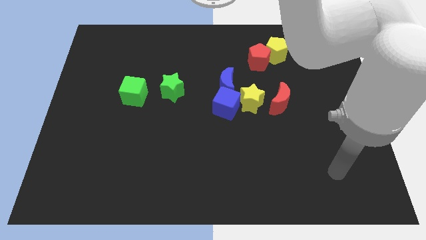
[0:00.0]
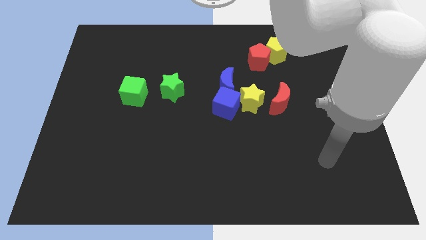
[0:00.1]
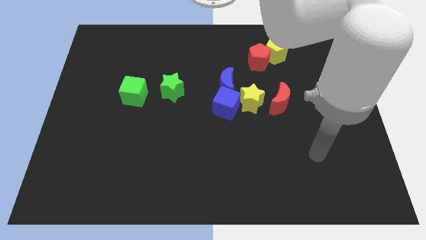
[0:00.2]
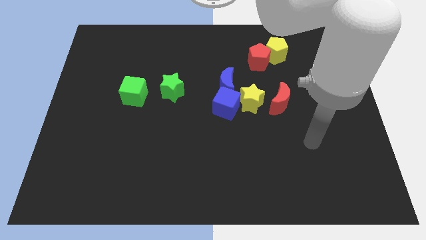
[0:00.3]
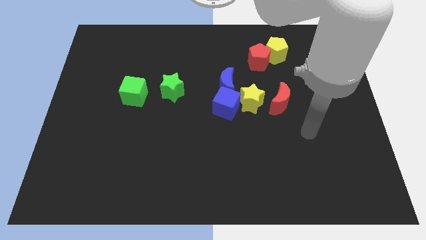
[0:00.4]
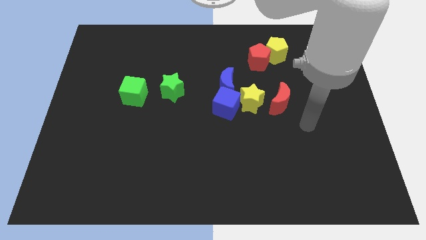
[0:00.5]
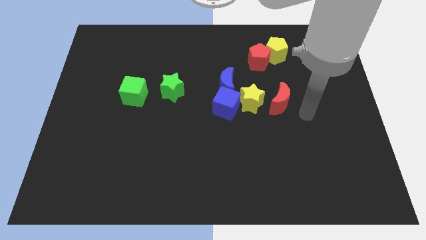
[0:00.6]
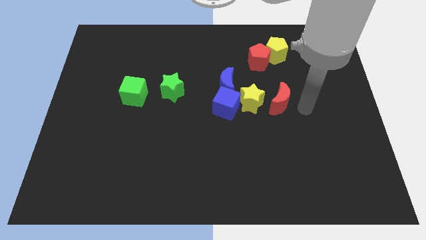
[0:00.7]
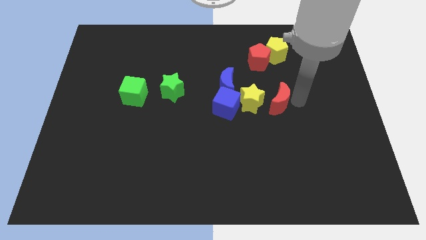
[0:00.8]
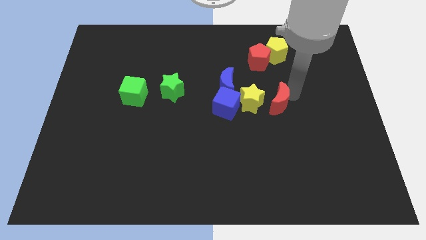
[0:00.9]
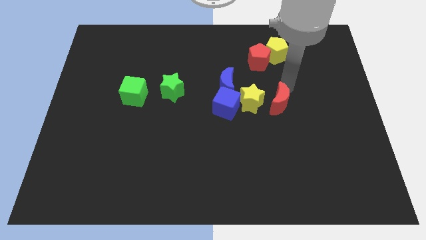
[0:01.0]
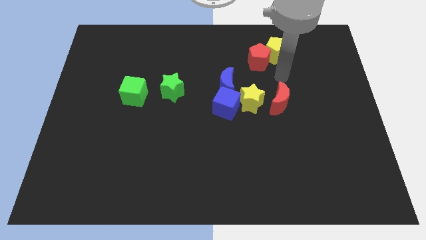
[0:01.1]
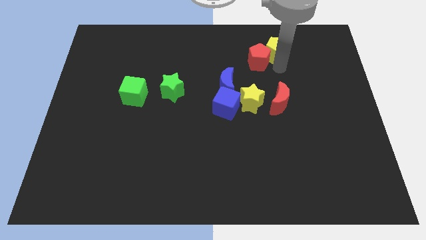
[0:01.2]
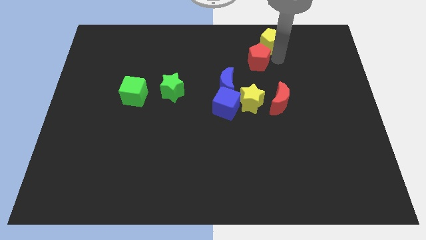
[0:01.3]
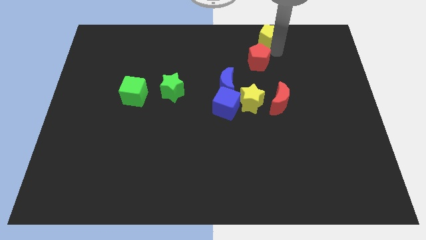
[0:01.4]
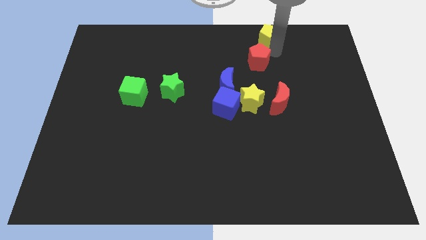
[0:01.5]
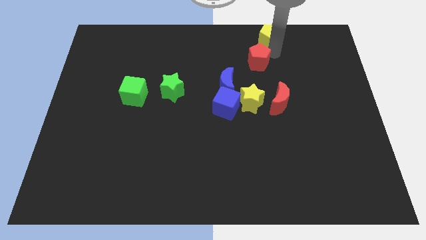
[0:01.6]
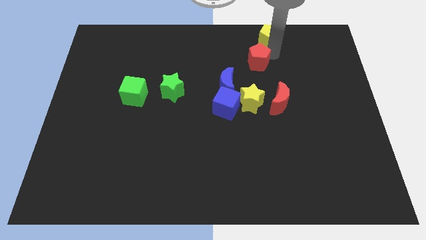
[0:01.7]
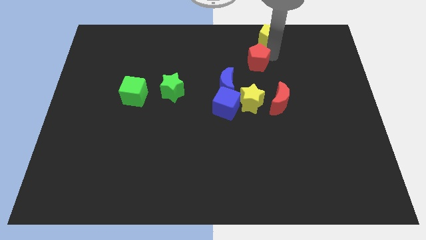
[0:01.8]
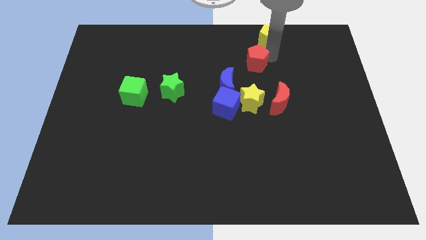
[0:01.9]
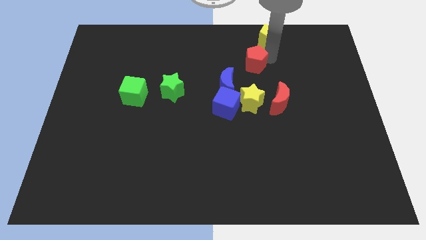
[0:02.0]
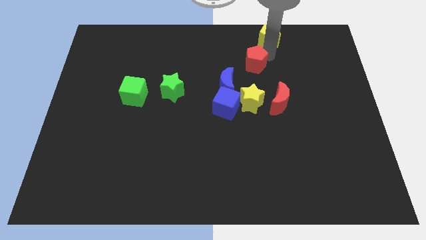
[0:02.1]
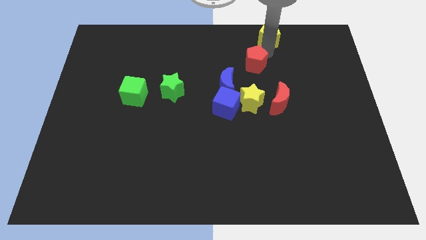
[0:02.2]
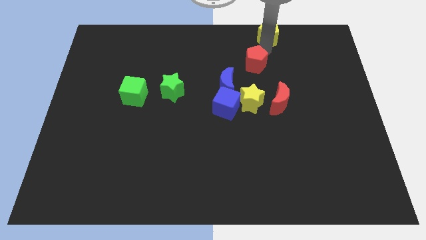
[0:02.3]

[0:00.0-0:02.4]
separate the red pentagon from the yellow pentagon

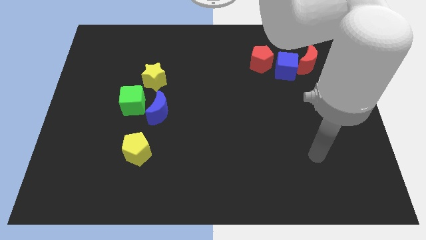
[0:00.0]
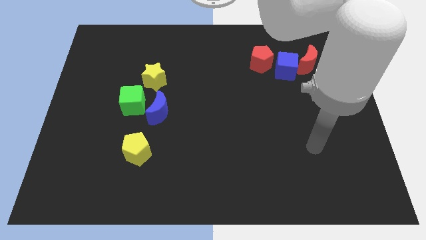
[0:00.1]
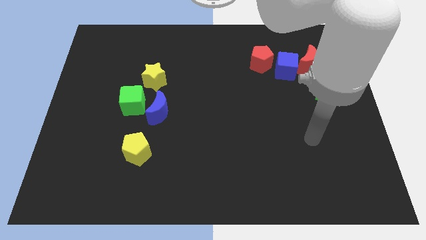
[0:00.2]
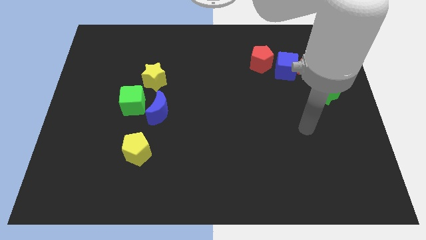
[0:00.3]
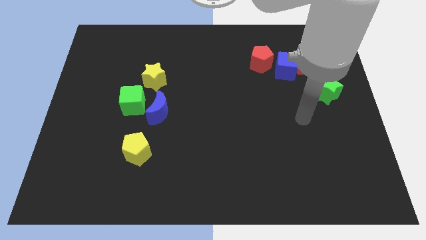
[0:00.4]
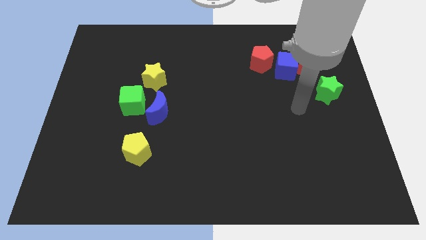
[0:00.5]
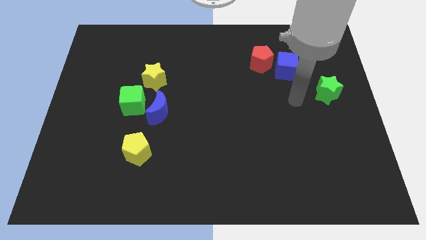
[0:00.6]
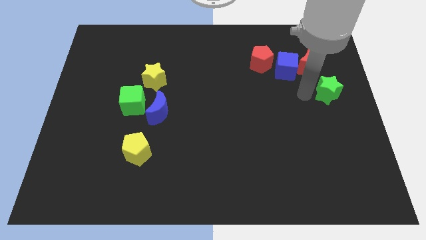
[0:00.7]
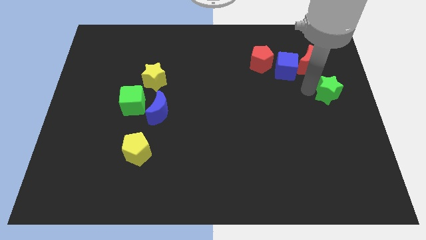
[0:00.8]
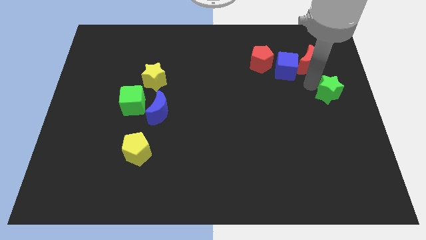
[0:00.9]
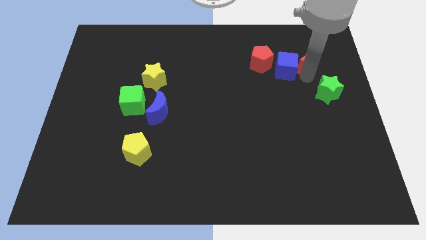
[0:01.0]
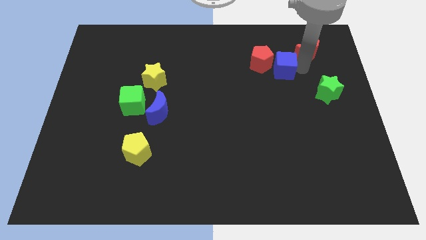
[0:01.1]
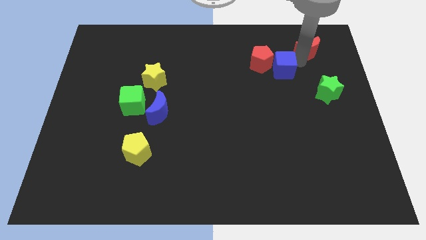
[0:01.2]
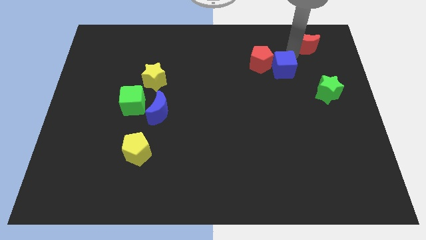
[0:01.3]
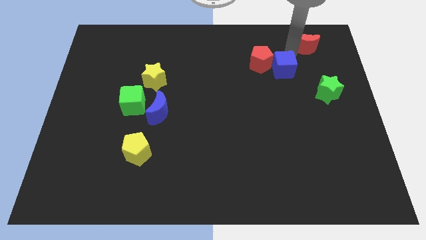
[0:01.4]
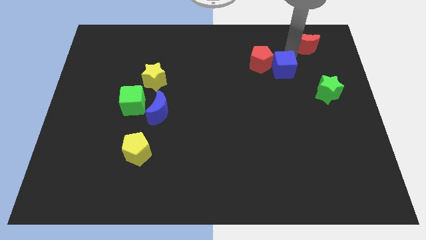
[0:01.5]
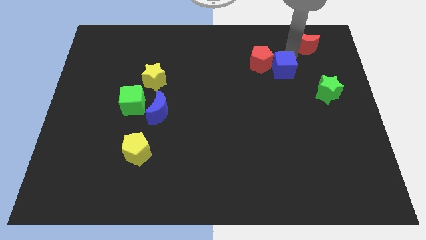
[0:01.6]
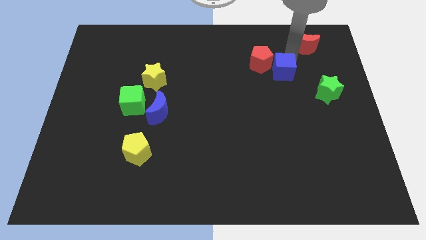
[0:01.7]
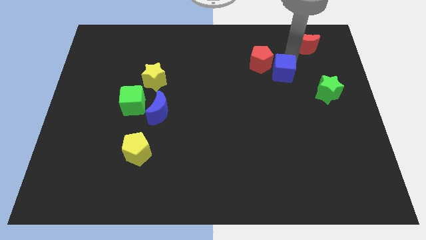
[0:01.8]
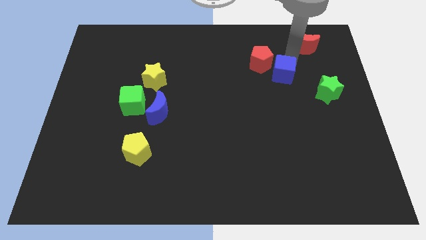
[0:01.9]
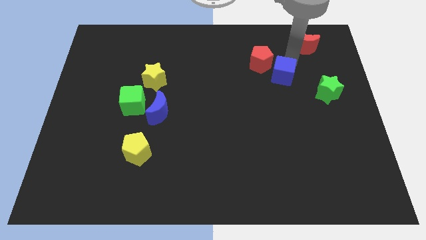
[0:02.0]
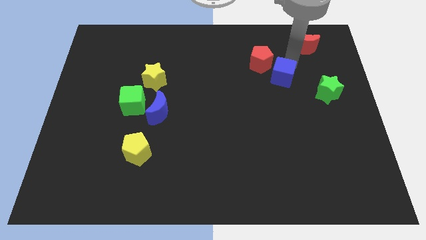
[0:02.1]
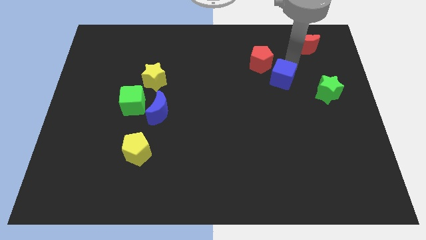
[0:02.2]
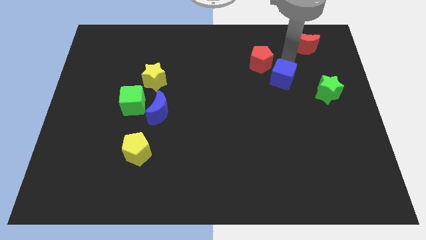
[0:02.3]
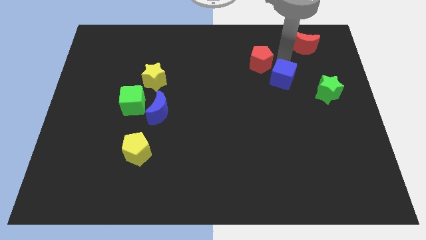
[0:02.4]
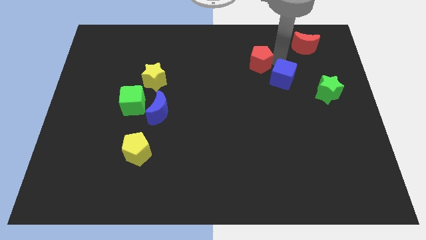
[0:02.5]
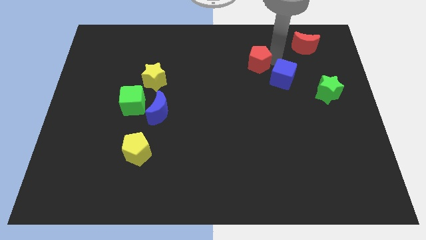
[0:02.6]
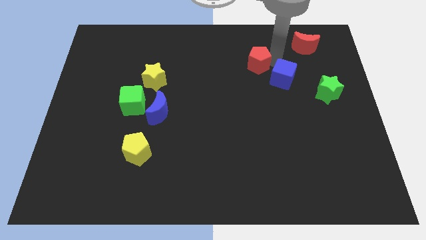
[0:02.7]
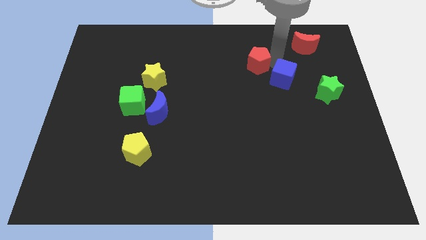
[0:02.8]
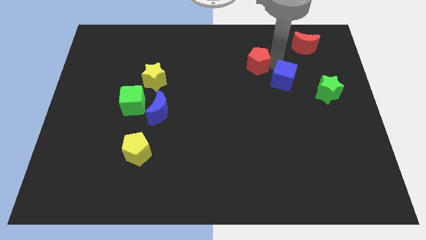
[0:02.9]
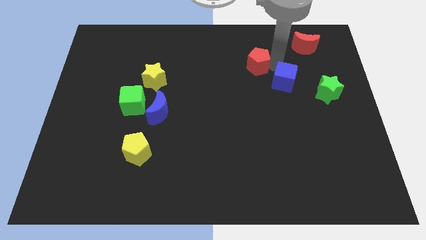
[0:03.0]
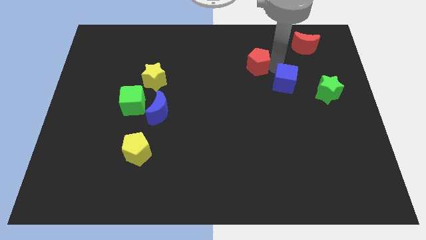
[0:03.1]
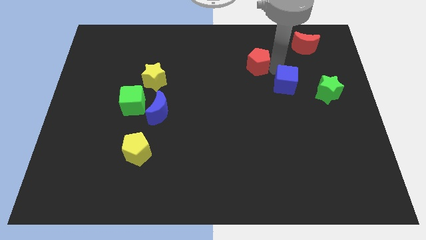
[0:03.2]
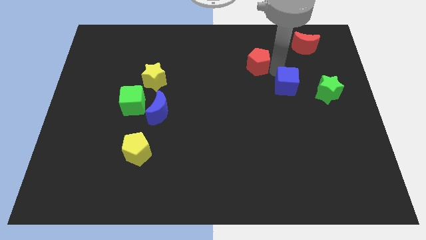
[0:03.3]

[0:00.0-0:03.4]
separate the blue cube from the red moon and red pentagon

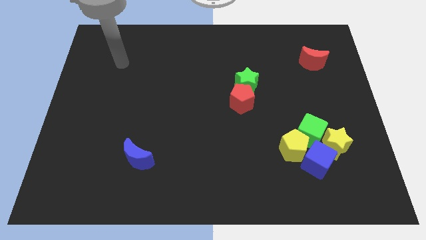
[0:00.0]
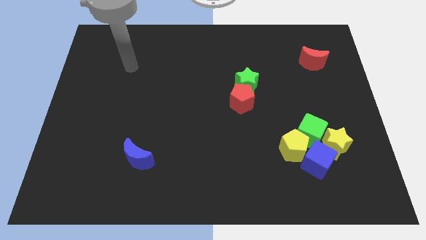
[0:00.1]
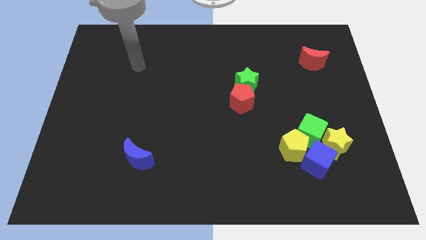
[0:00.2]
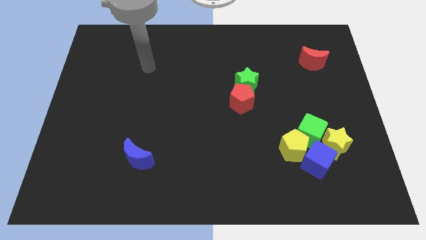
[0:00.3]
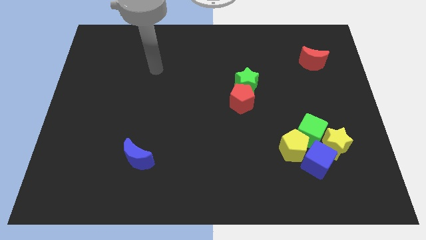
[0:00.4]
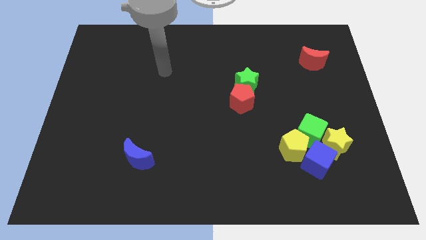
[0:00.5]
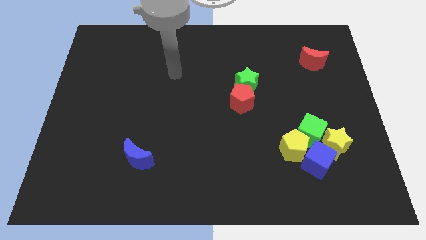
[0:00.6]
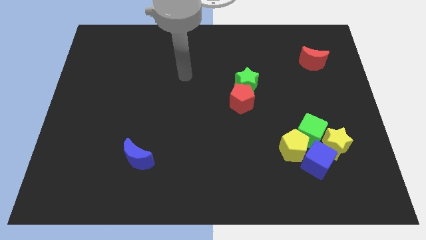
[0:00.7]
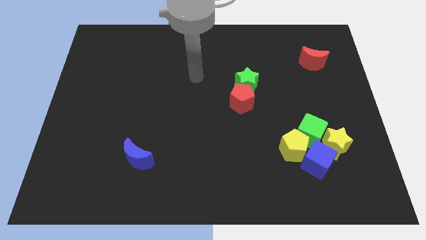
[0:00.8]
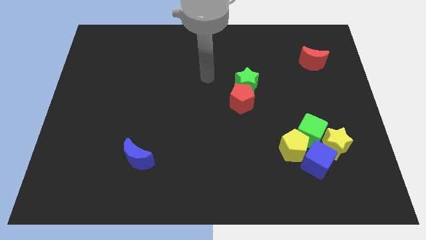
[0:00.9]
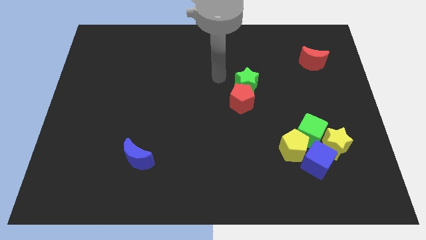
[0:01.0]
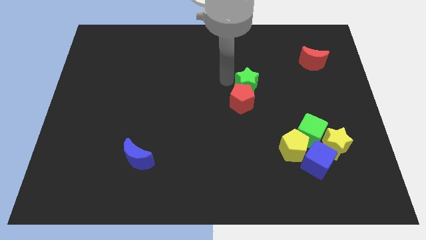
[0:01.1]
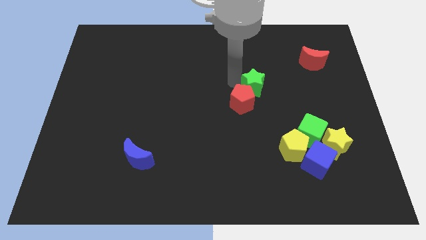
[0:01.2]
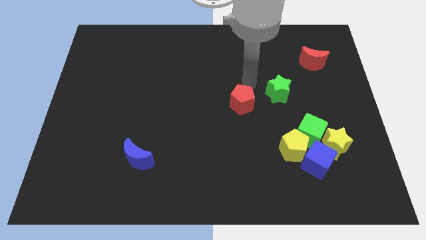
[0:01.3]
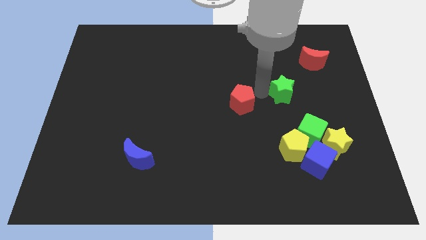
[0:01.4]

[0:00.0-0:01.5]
move the red pentagon away from the green star

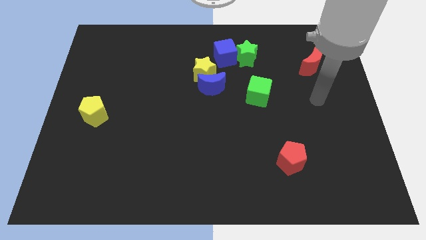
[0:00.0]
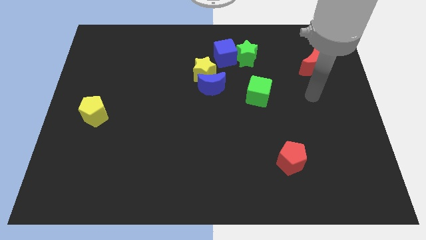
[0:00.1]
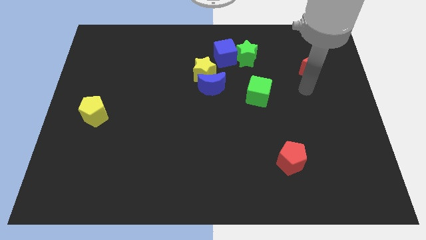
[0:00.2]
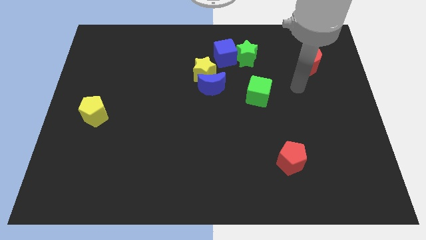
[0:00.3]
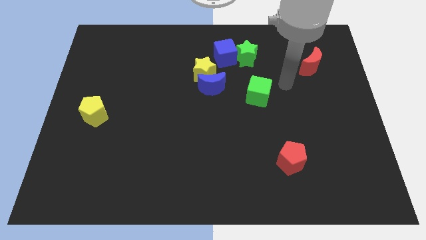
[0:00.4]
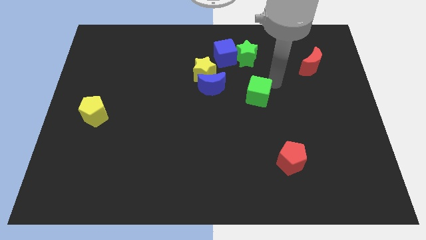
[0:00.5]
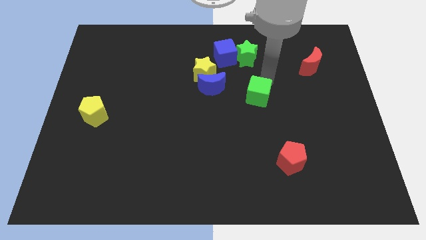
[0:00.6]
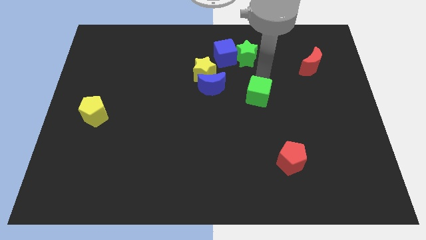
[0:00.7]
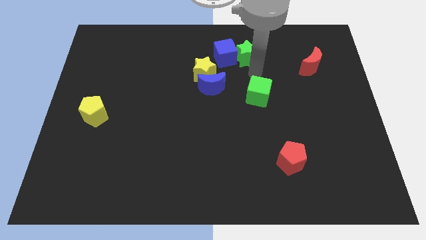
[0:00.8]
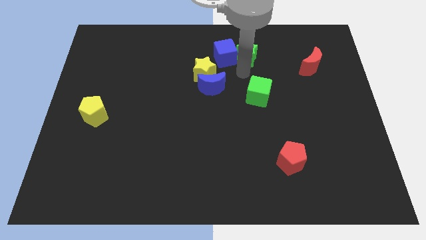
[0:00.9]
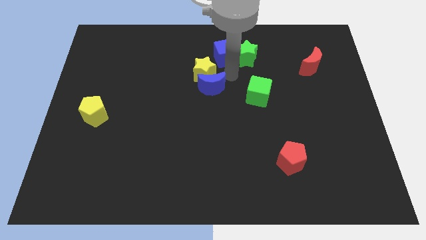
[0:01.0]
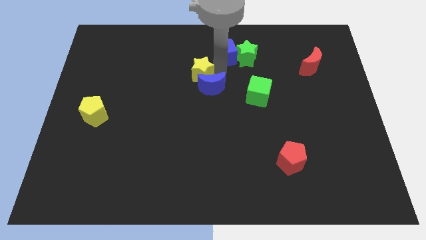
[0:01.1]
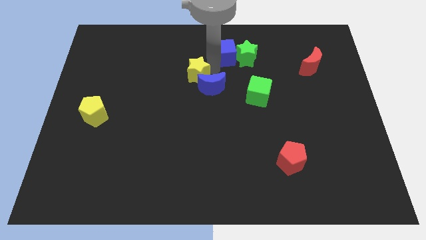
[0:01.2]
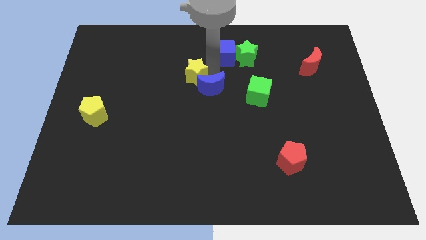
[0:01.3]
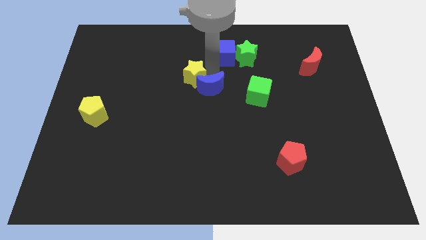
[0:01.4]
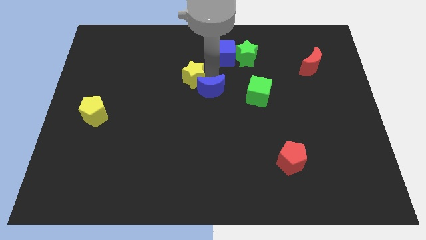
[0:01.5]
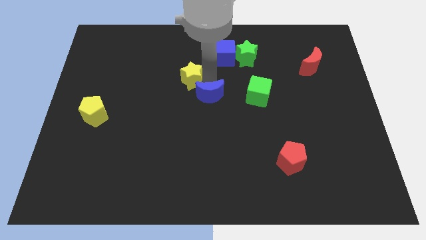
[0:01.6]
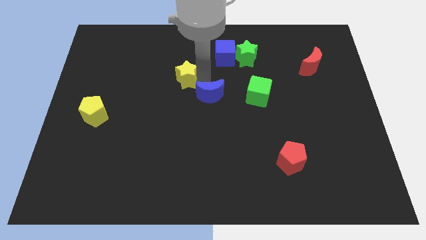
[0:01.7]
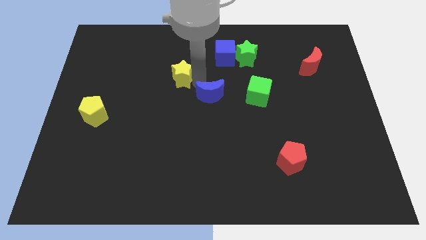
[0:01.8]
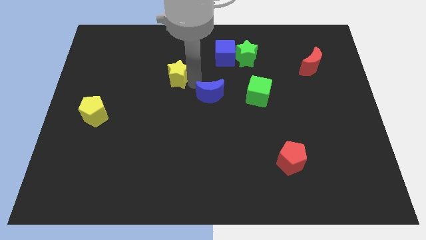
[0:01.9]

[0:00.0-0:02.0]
pull the blue moon apart from the yellow star

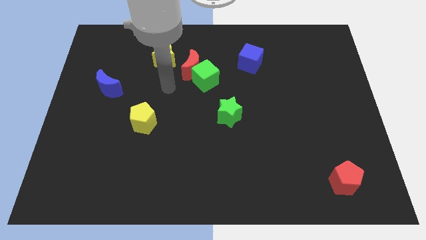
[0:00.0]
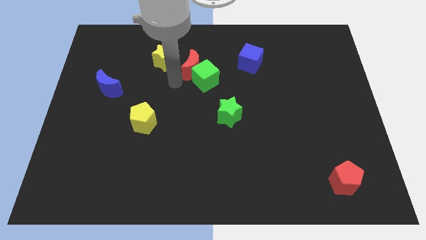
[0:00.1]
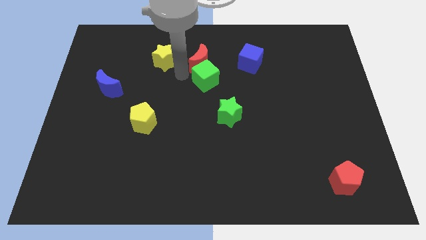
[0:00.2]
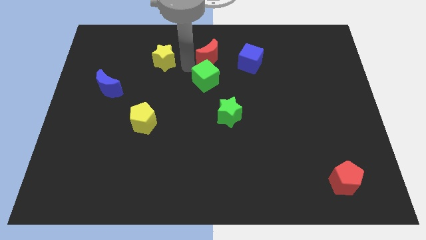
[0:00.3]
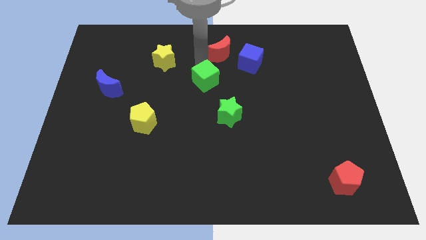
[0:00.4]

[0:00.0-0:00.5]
pull the green cube apart from the red moon
